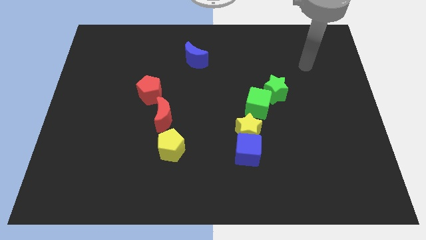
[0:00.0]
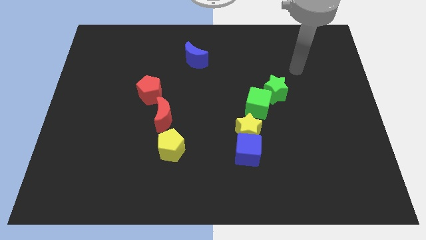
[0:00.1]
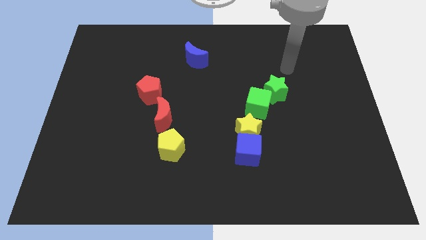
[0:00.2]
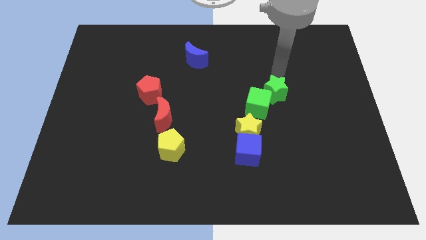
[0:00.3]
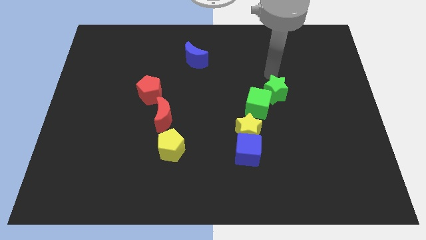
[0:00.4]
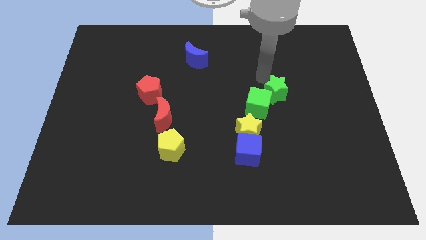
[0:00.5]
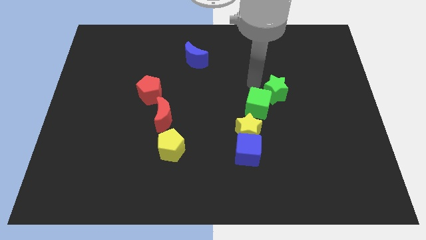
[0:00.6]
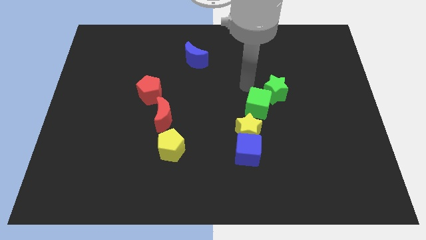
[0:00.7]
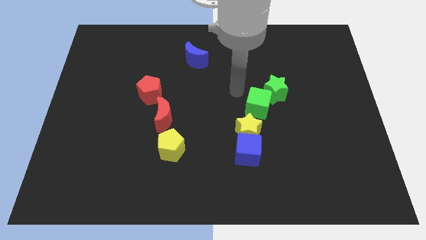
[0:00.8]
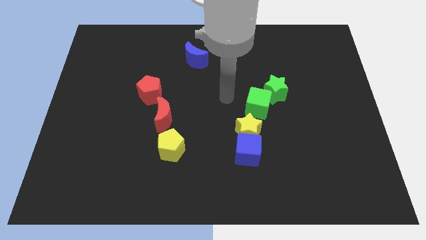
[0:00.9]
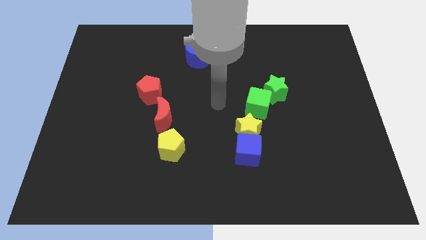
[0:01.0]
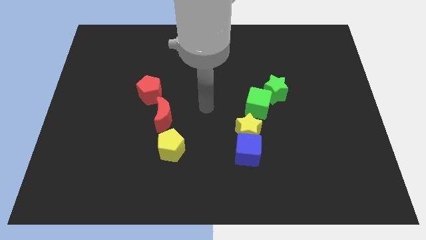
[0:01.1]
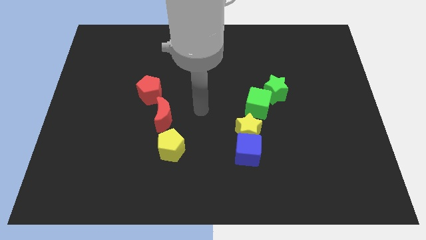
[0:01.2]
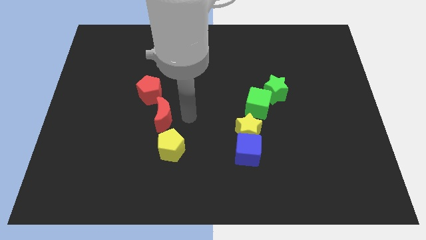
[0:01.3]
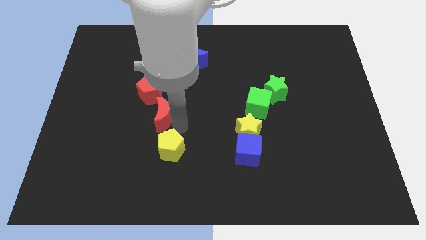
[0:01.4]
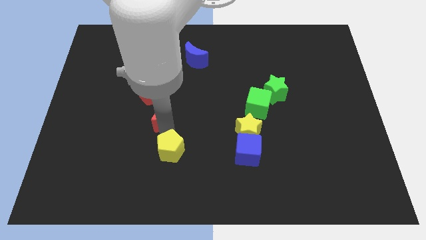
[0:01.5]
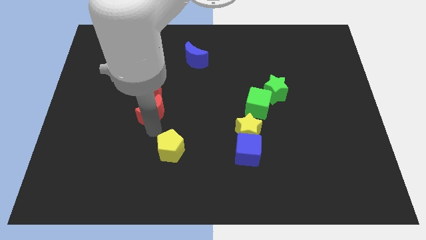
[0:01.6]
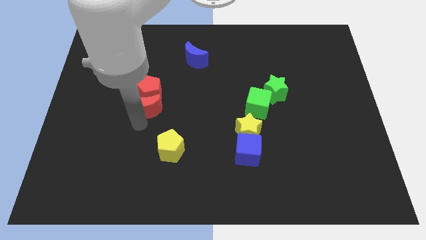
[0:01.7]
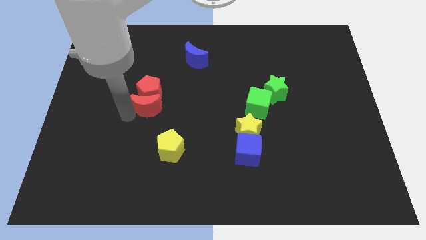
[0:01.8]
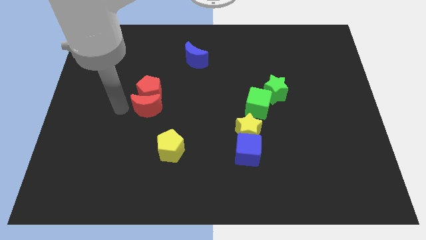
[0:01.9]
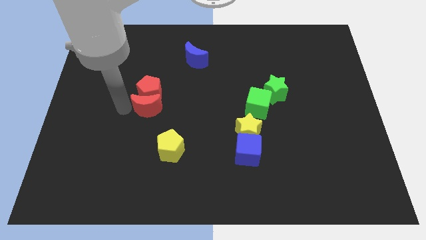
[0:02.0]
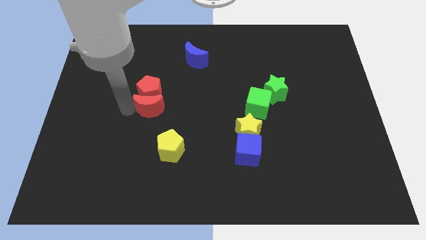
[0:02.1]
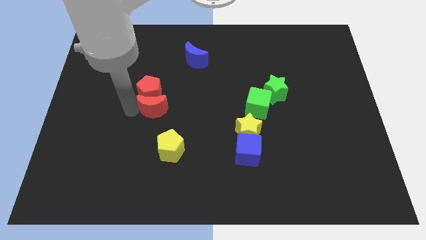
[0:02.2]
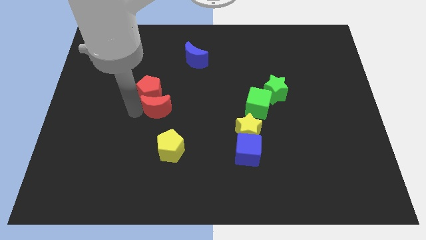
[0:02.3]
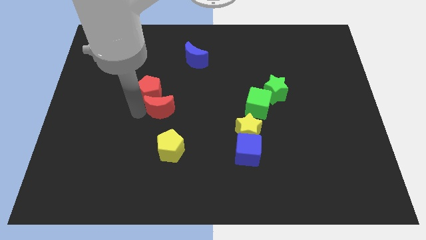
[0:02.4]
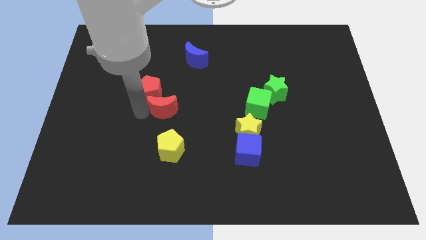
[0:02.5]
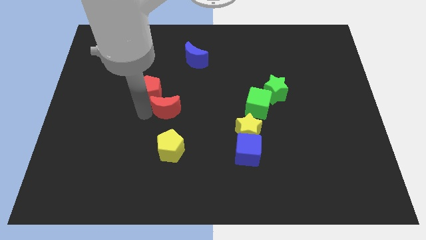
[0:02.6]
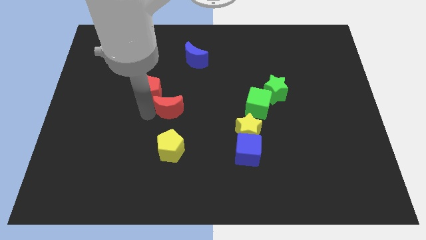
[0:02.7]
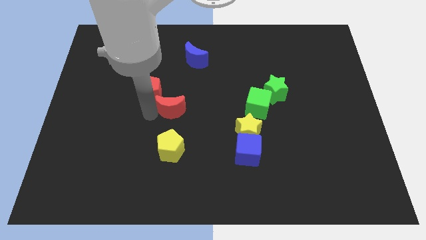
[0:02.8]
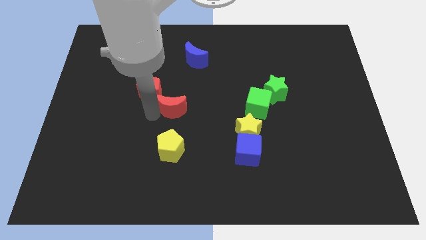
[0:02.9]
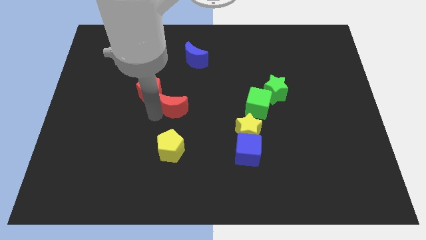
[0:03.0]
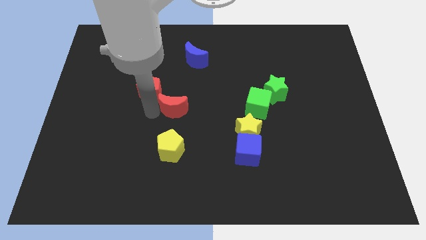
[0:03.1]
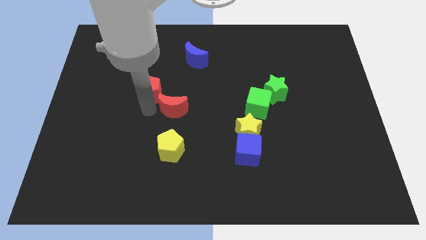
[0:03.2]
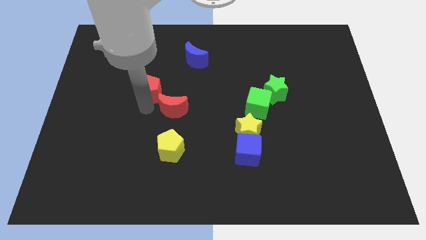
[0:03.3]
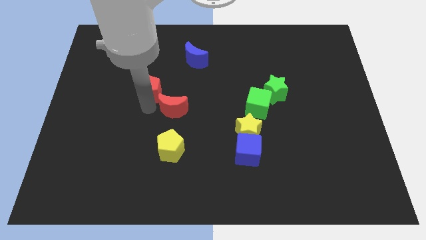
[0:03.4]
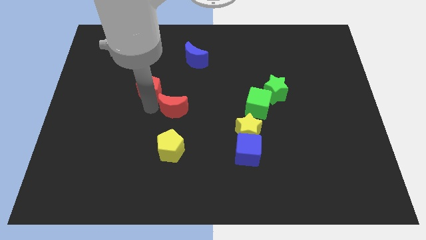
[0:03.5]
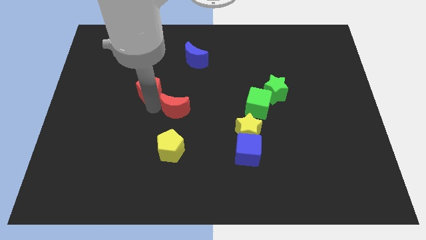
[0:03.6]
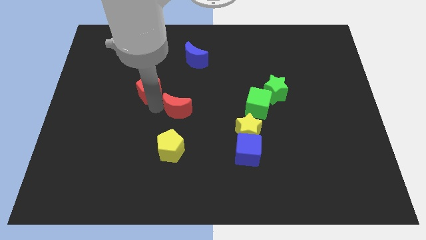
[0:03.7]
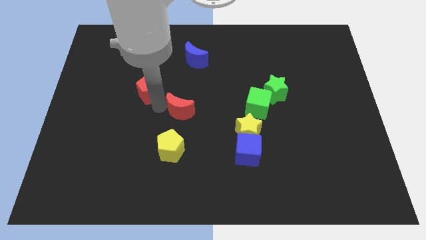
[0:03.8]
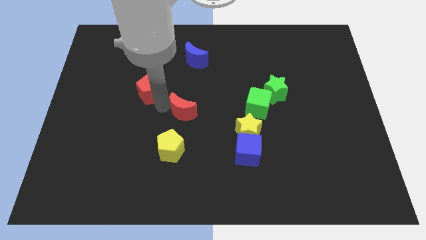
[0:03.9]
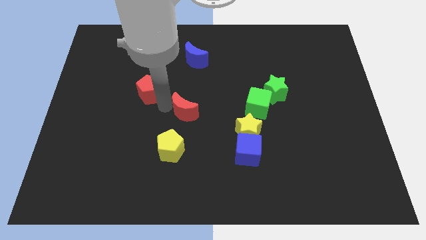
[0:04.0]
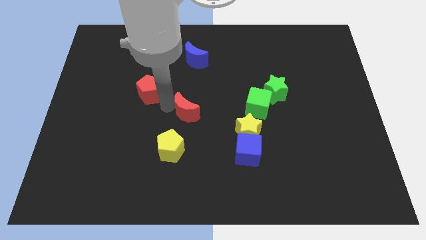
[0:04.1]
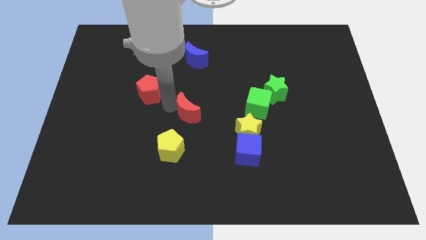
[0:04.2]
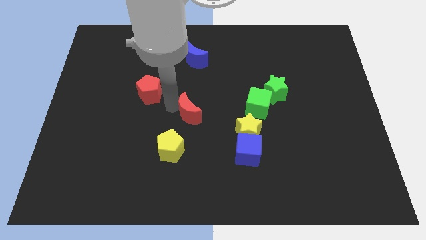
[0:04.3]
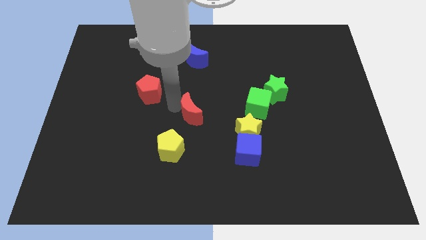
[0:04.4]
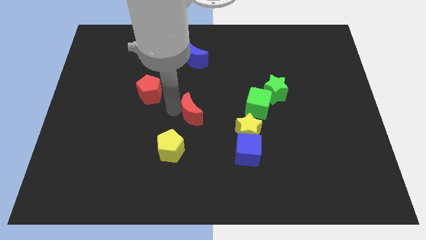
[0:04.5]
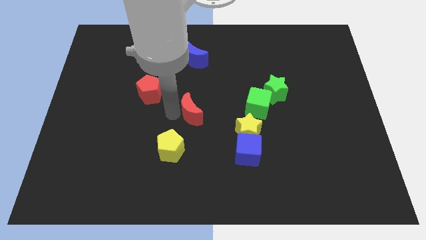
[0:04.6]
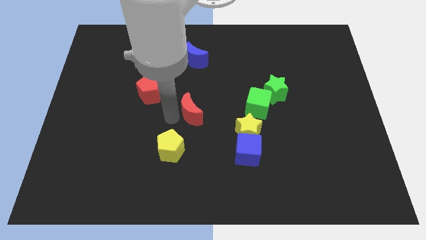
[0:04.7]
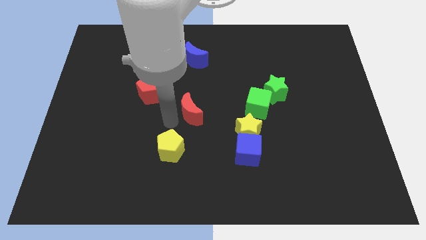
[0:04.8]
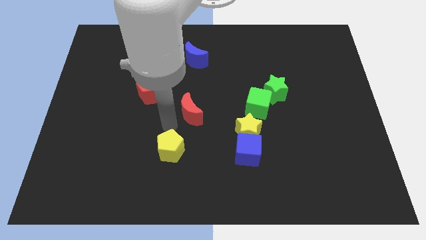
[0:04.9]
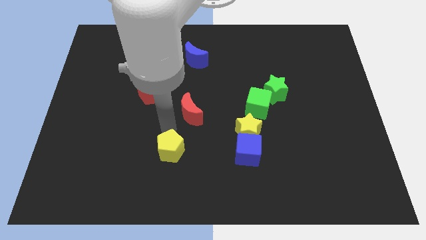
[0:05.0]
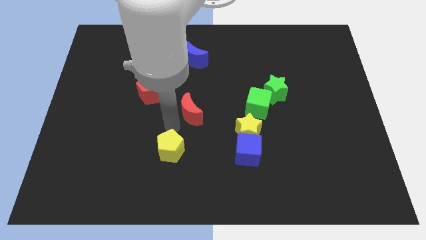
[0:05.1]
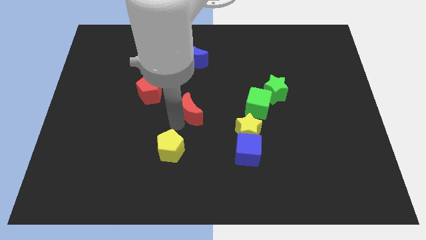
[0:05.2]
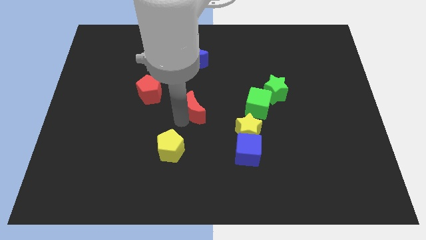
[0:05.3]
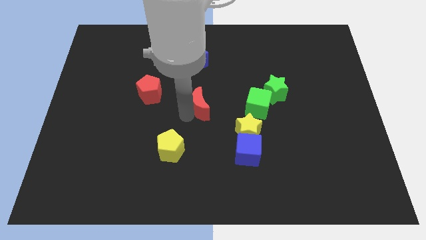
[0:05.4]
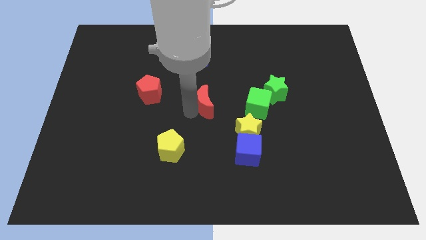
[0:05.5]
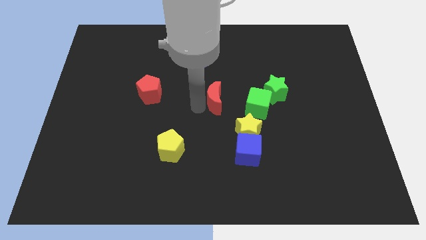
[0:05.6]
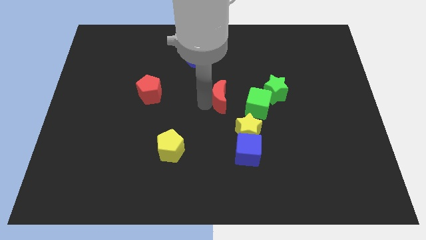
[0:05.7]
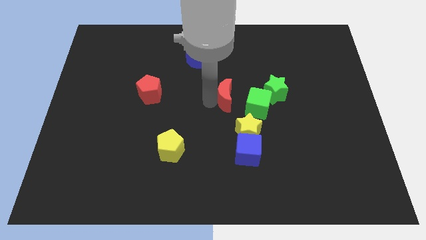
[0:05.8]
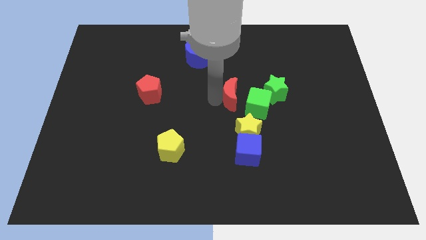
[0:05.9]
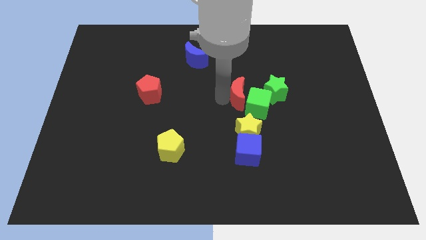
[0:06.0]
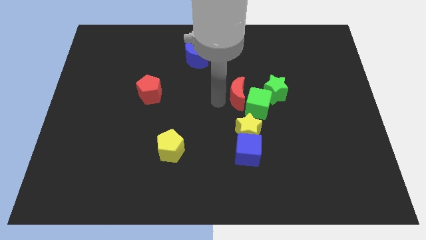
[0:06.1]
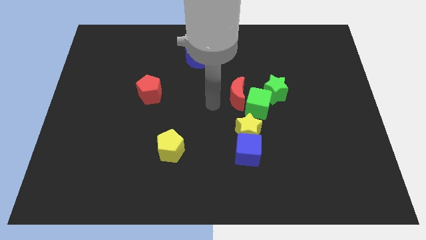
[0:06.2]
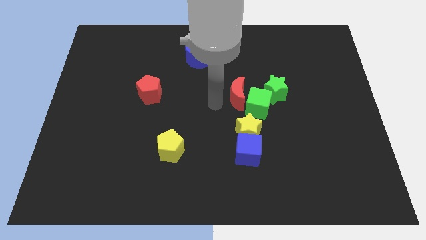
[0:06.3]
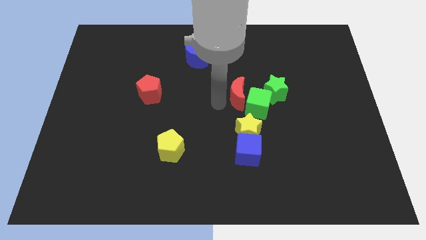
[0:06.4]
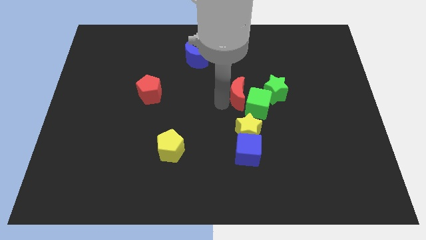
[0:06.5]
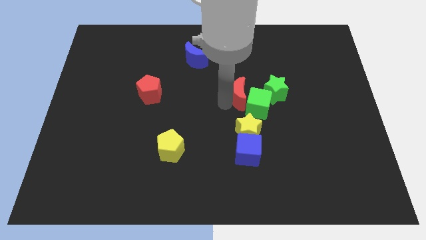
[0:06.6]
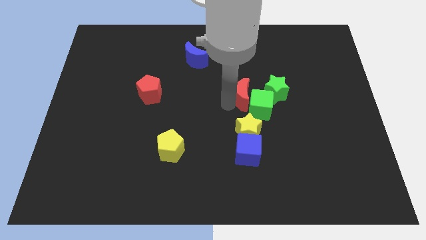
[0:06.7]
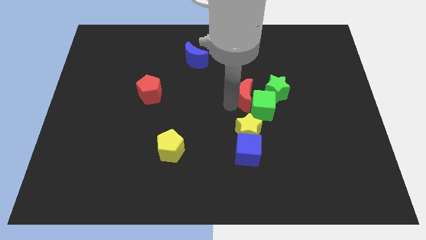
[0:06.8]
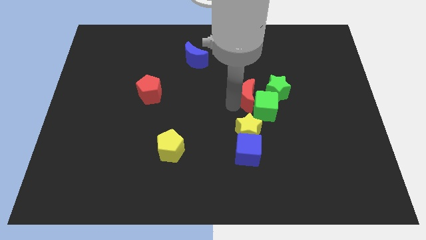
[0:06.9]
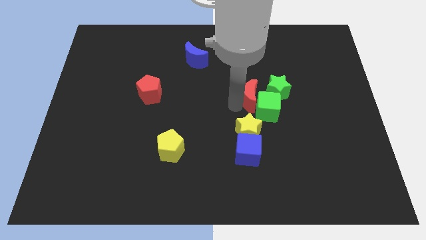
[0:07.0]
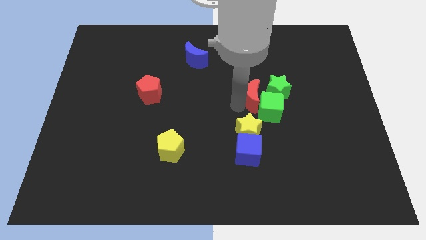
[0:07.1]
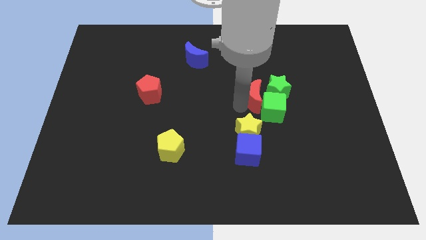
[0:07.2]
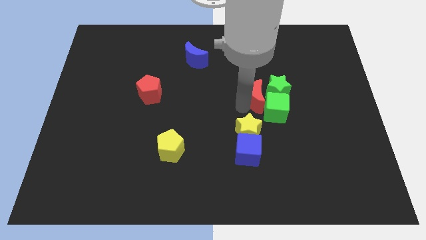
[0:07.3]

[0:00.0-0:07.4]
move the red moon towards the green star

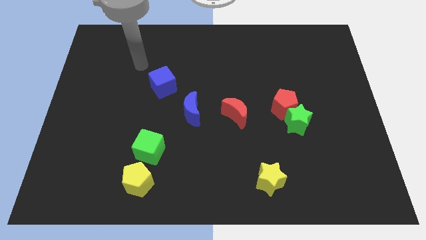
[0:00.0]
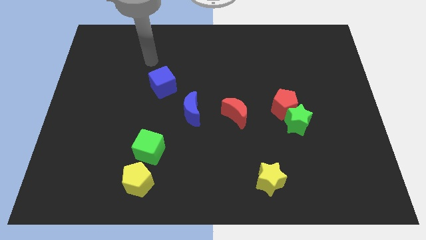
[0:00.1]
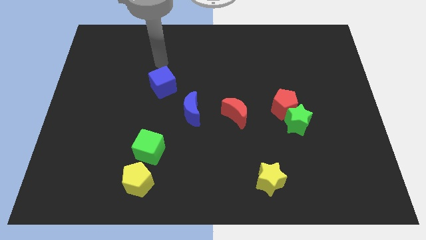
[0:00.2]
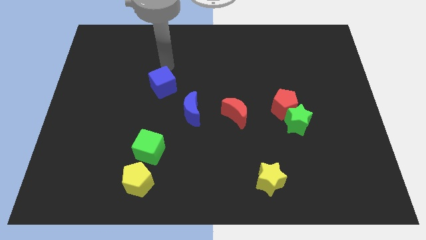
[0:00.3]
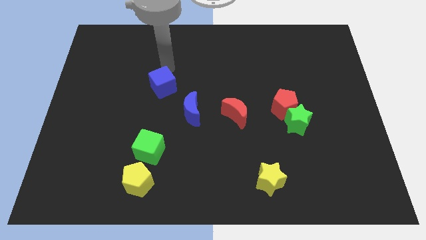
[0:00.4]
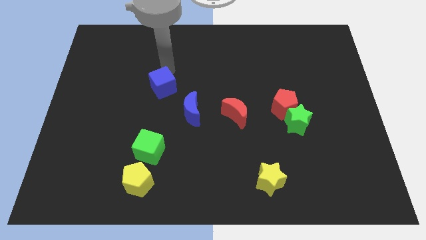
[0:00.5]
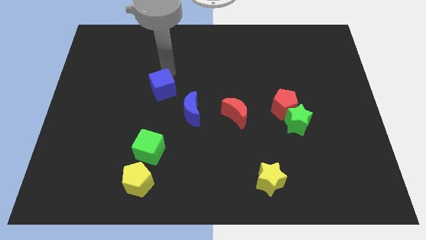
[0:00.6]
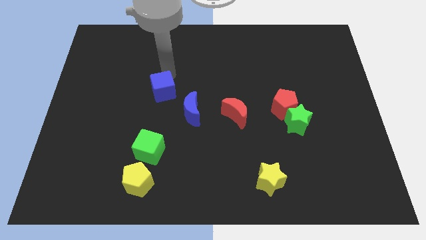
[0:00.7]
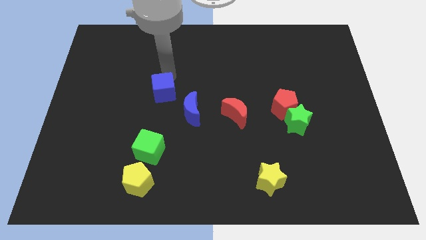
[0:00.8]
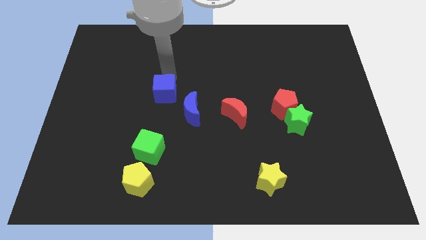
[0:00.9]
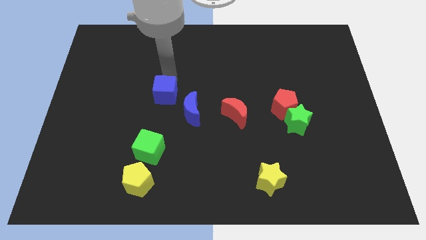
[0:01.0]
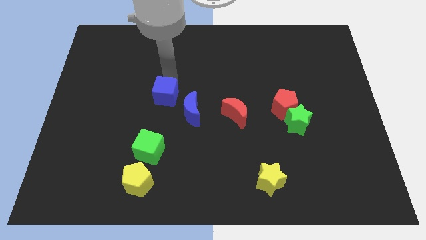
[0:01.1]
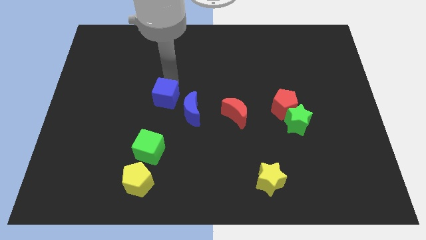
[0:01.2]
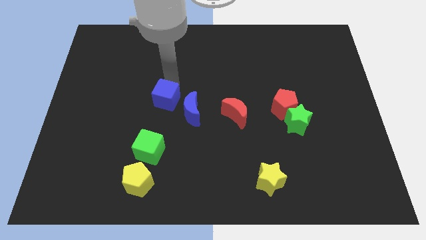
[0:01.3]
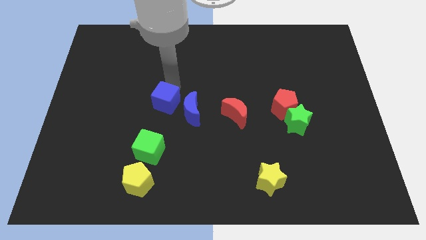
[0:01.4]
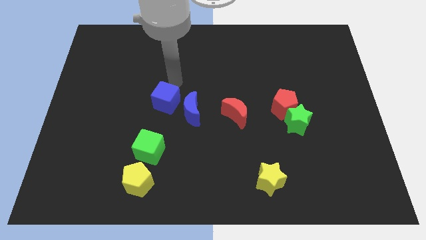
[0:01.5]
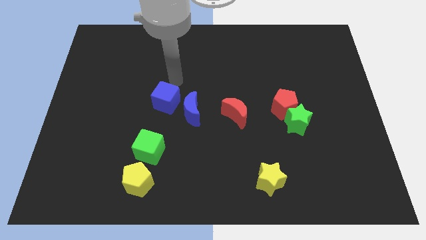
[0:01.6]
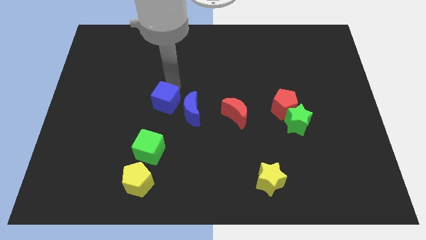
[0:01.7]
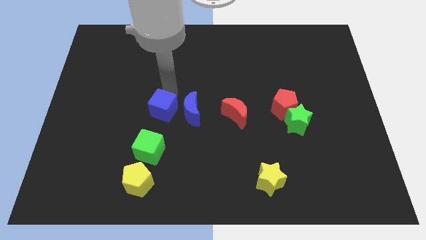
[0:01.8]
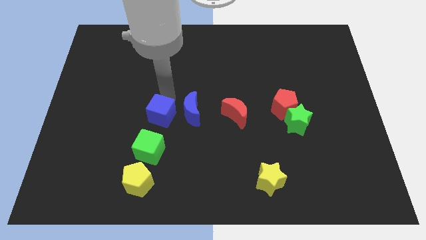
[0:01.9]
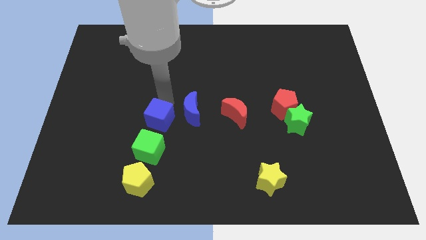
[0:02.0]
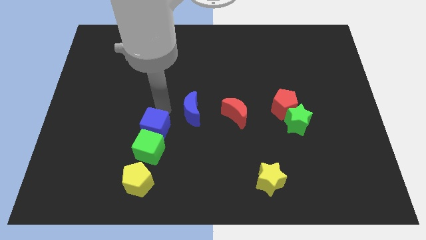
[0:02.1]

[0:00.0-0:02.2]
put the blue cube next to the green cube
